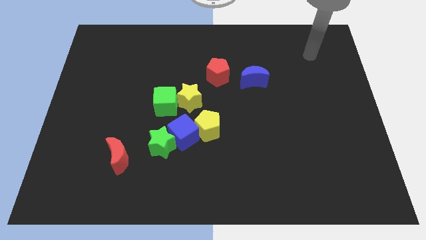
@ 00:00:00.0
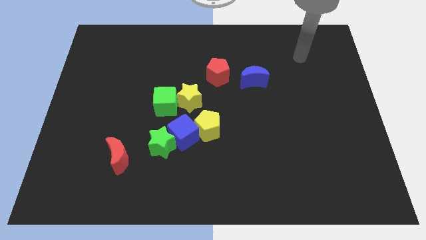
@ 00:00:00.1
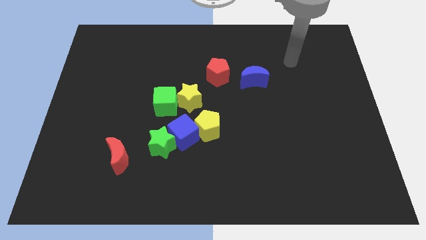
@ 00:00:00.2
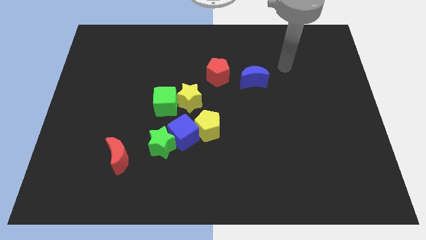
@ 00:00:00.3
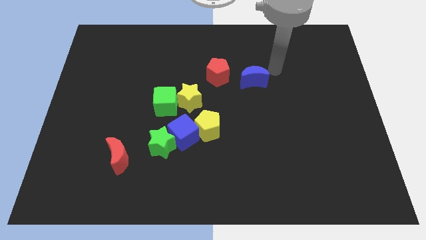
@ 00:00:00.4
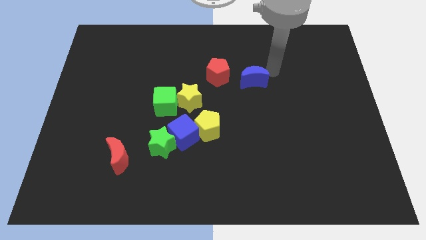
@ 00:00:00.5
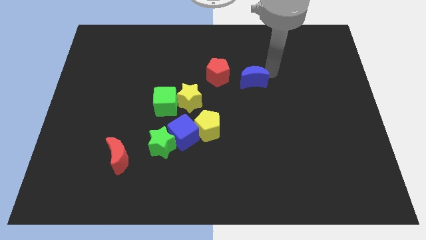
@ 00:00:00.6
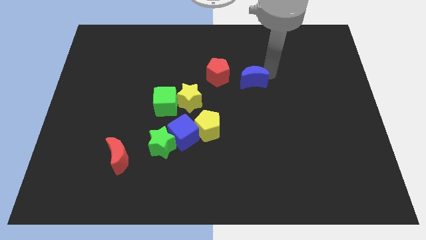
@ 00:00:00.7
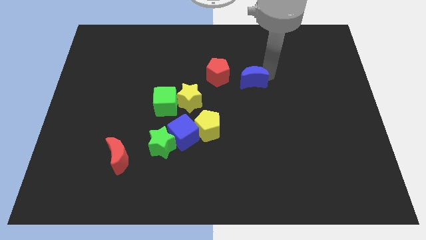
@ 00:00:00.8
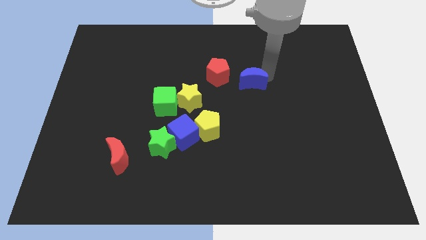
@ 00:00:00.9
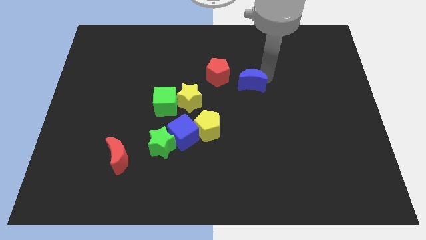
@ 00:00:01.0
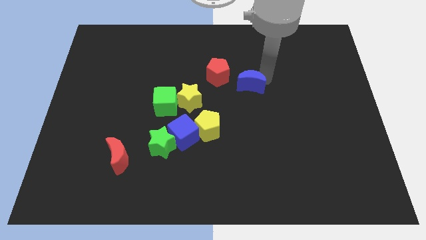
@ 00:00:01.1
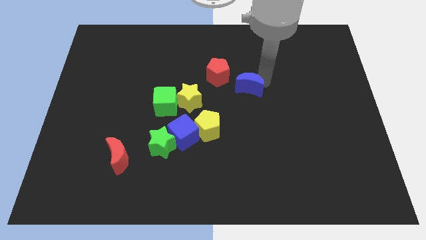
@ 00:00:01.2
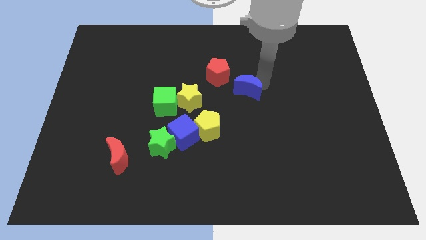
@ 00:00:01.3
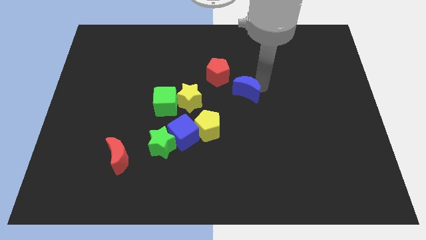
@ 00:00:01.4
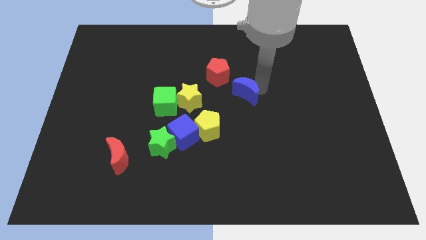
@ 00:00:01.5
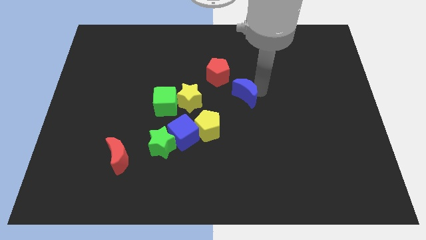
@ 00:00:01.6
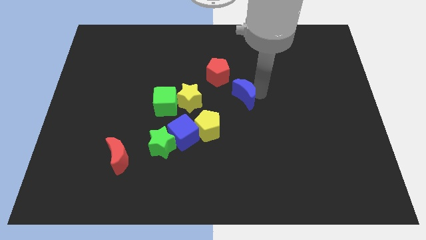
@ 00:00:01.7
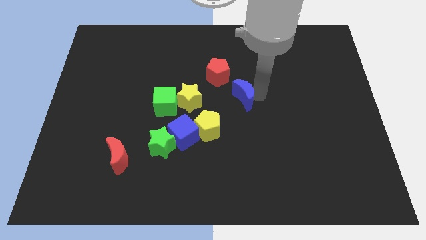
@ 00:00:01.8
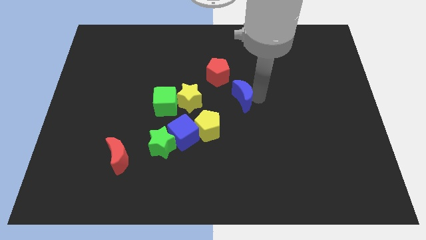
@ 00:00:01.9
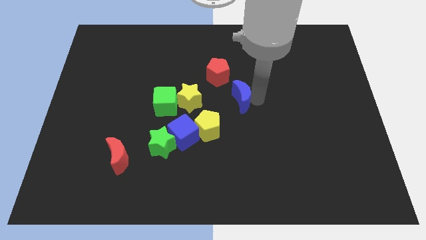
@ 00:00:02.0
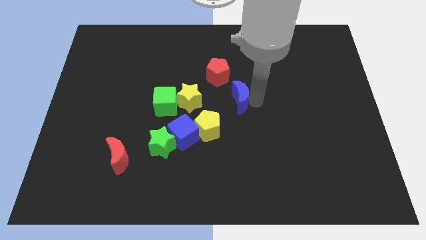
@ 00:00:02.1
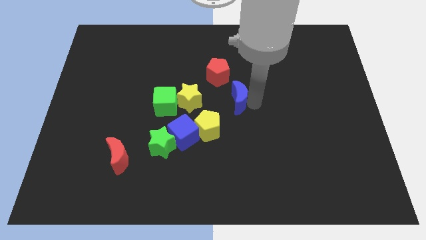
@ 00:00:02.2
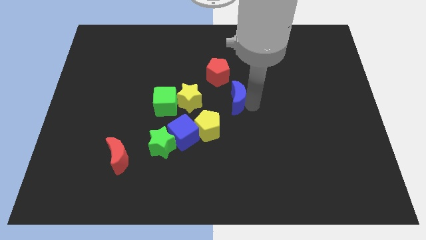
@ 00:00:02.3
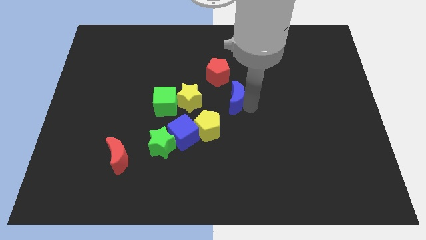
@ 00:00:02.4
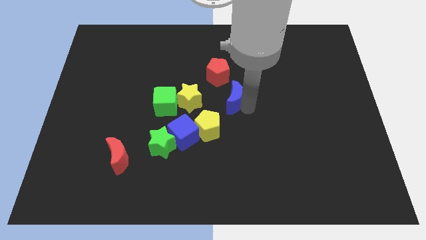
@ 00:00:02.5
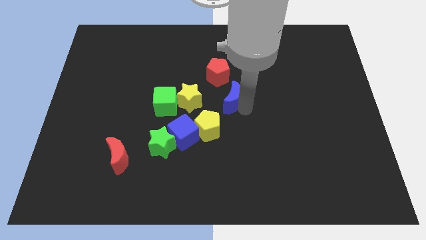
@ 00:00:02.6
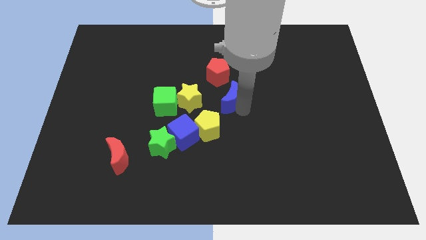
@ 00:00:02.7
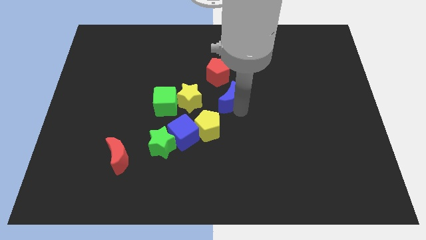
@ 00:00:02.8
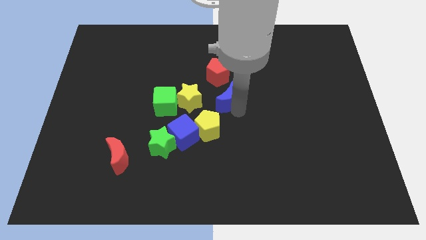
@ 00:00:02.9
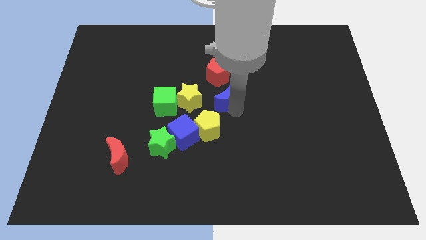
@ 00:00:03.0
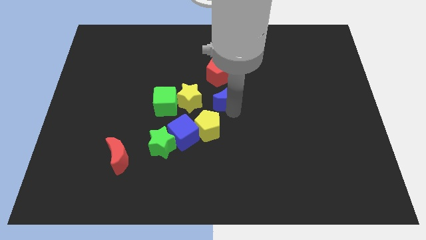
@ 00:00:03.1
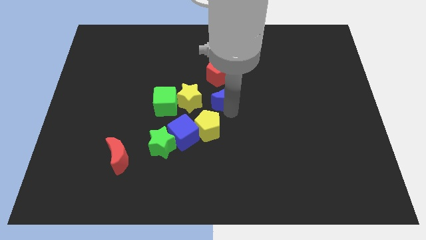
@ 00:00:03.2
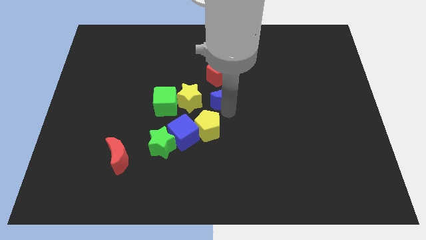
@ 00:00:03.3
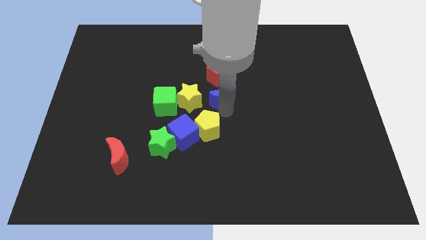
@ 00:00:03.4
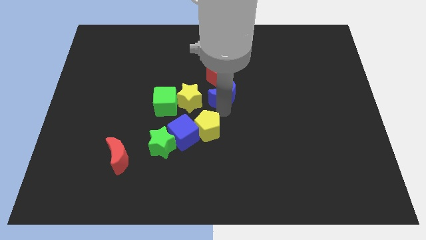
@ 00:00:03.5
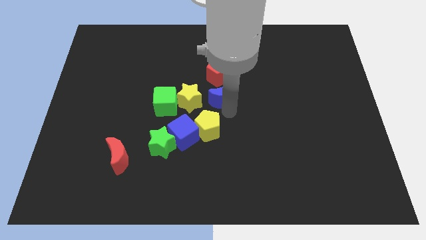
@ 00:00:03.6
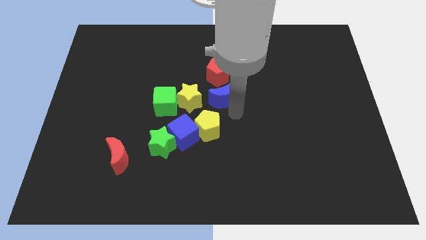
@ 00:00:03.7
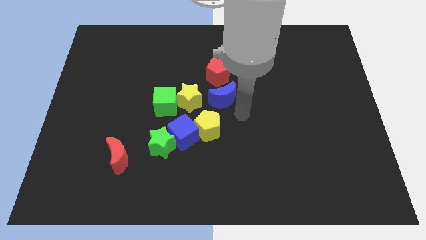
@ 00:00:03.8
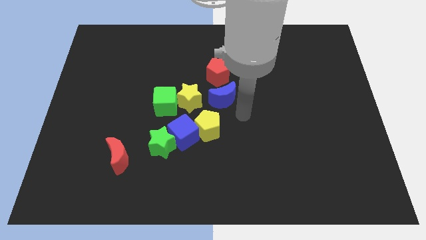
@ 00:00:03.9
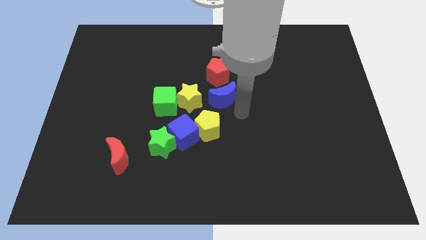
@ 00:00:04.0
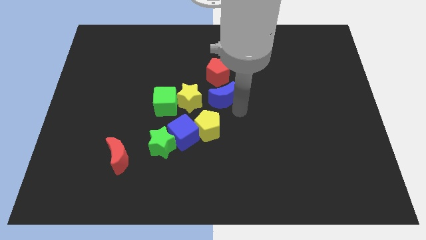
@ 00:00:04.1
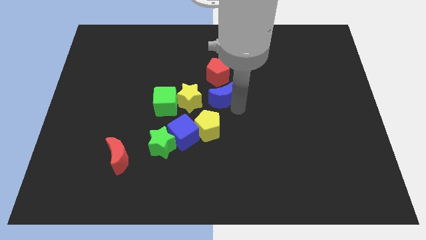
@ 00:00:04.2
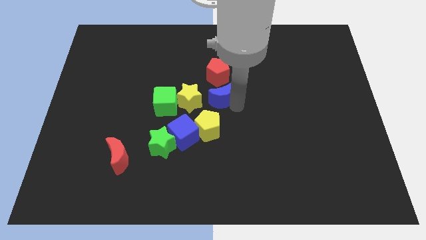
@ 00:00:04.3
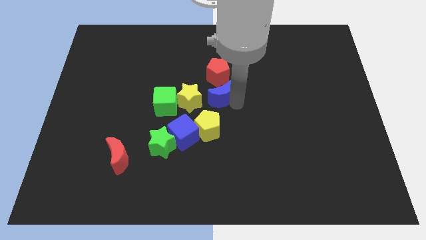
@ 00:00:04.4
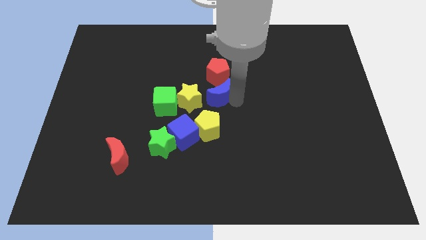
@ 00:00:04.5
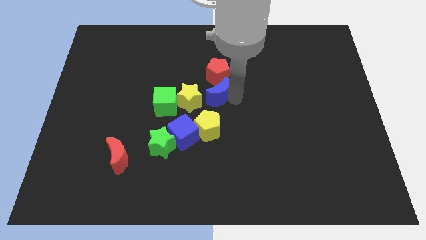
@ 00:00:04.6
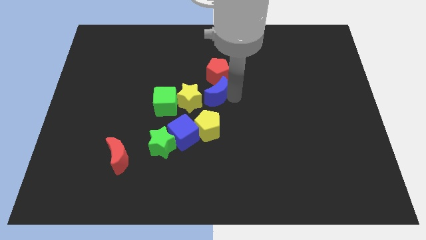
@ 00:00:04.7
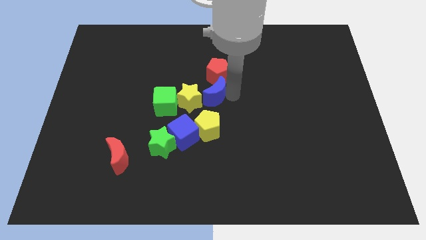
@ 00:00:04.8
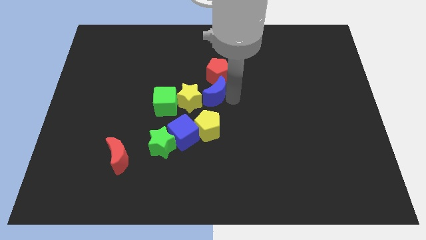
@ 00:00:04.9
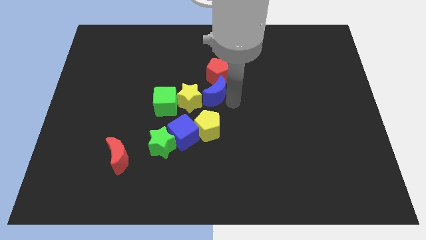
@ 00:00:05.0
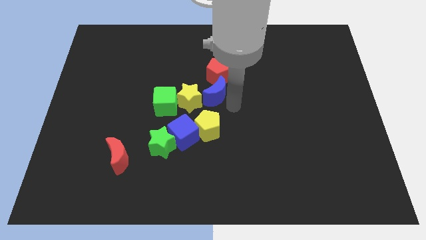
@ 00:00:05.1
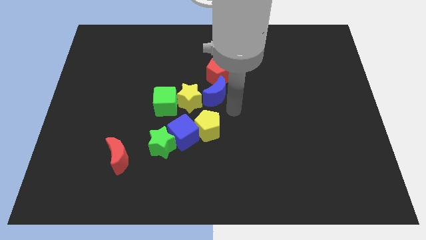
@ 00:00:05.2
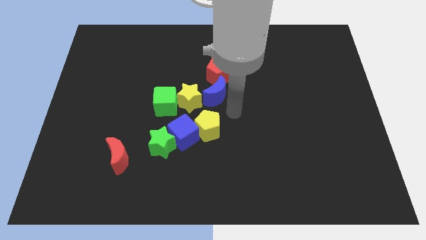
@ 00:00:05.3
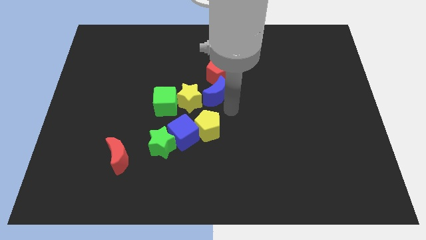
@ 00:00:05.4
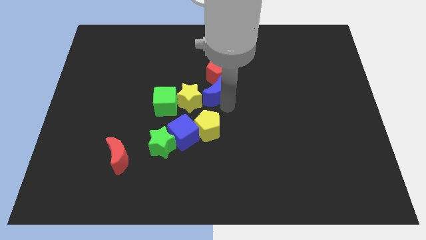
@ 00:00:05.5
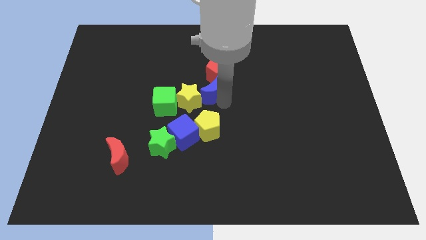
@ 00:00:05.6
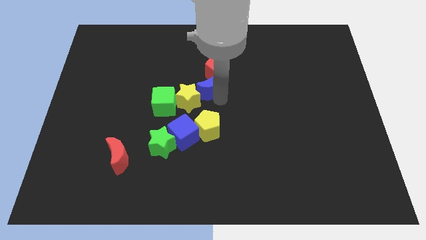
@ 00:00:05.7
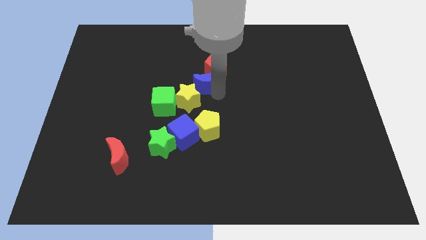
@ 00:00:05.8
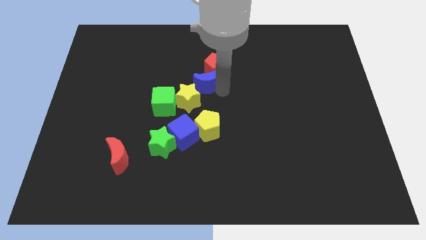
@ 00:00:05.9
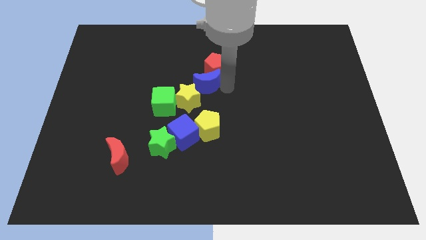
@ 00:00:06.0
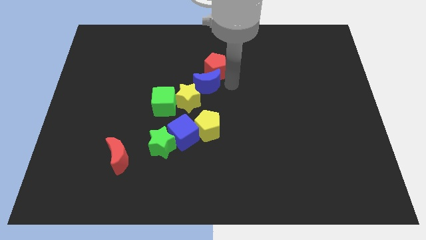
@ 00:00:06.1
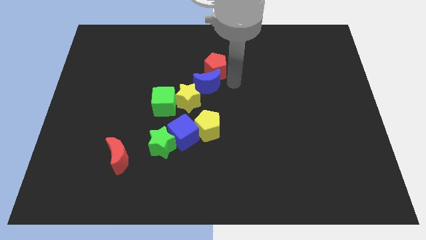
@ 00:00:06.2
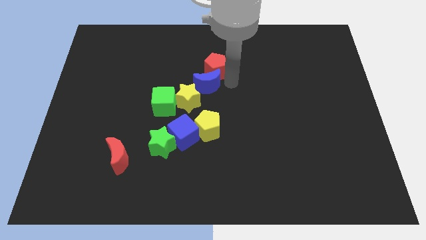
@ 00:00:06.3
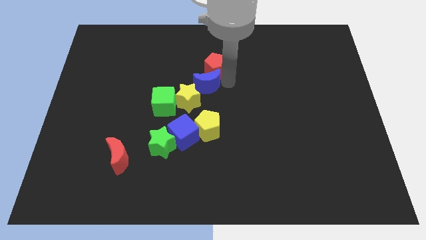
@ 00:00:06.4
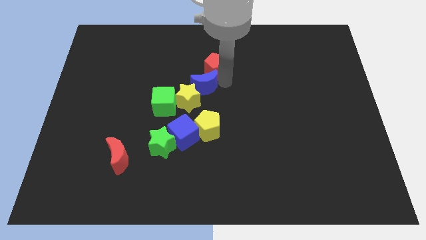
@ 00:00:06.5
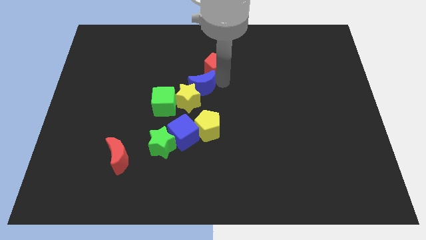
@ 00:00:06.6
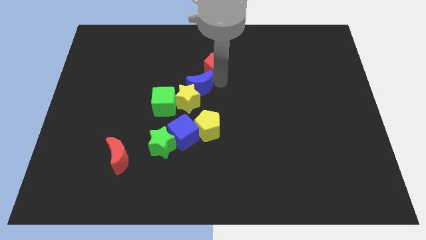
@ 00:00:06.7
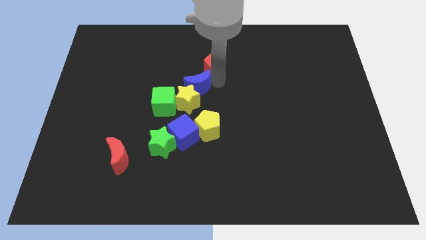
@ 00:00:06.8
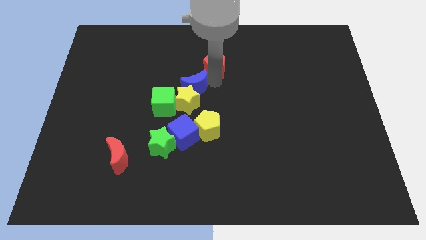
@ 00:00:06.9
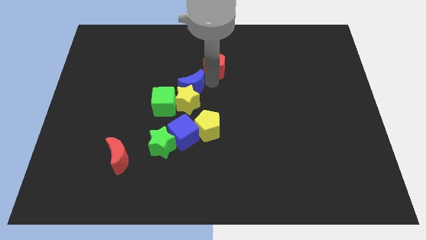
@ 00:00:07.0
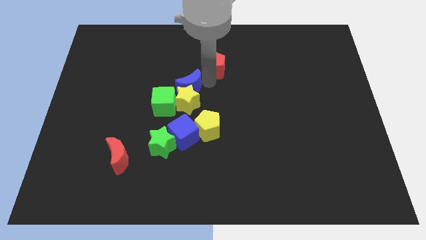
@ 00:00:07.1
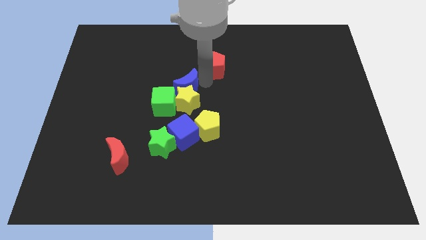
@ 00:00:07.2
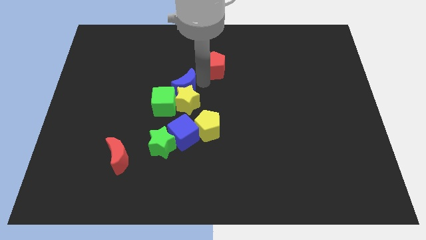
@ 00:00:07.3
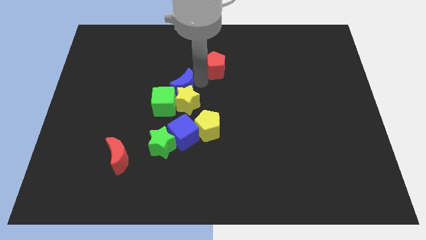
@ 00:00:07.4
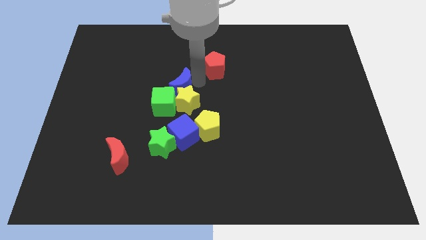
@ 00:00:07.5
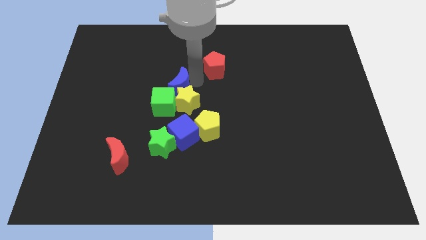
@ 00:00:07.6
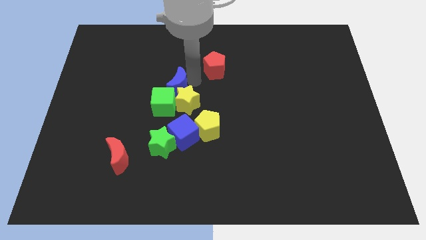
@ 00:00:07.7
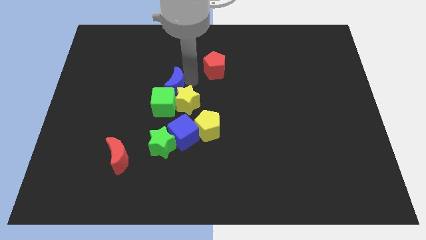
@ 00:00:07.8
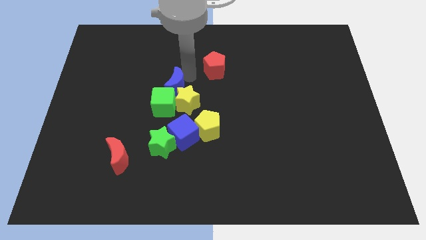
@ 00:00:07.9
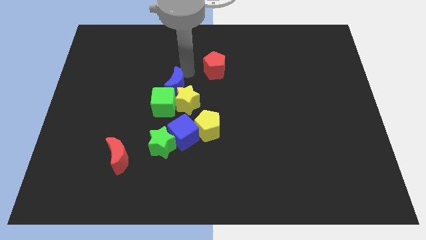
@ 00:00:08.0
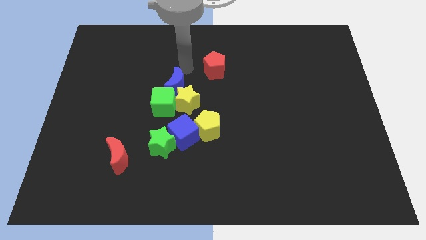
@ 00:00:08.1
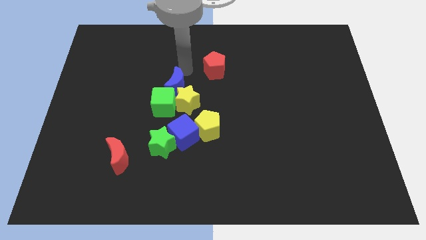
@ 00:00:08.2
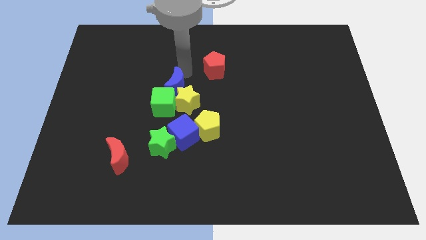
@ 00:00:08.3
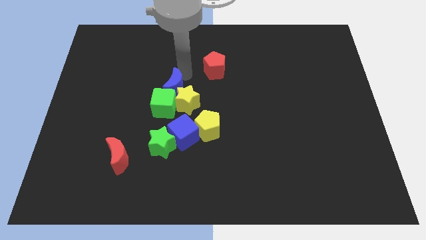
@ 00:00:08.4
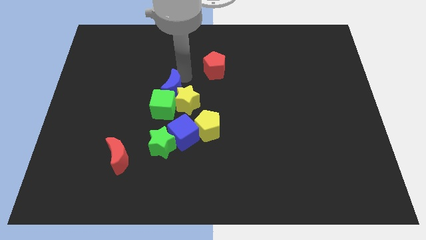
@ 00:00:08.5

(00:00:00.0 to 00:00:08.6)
put the blue moon to the top of the green star
